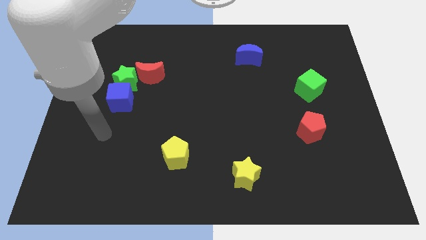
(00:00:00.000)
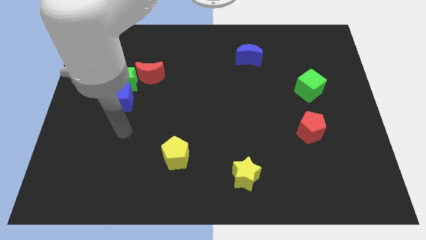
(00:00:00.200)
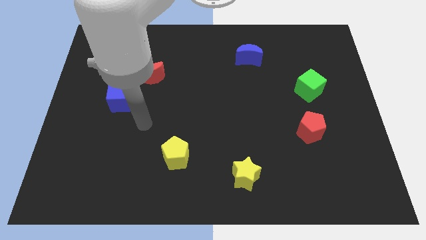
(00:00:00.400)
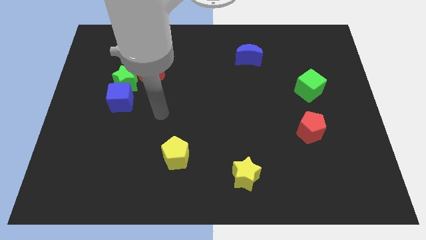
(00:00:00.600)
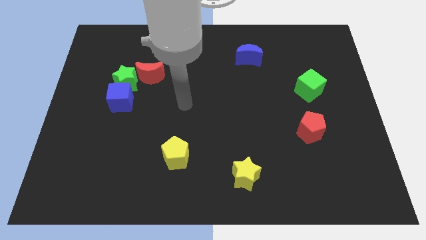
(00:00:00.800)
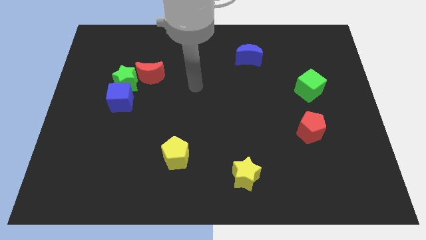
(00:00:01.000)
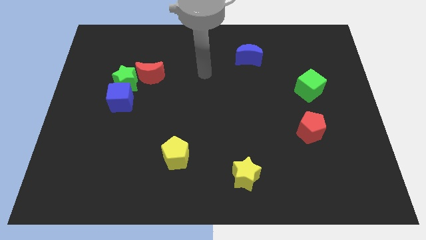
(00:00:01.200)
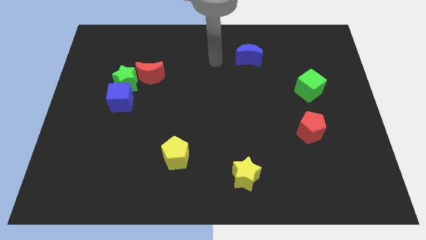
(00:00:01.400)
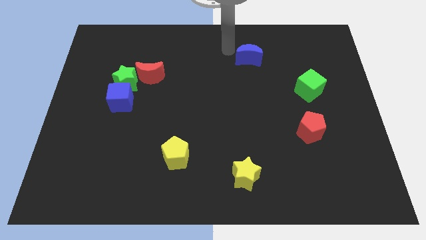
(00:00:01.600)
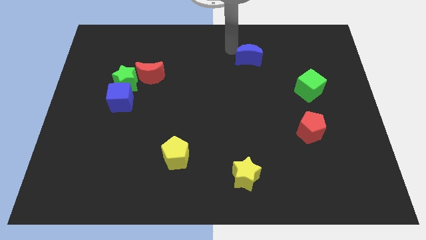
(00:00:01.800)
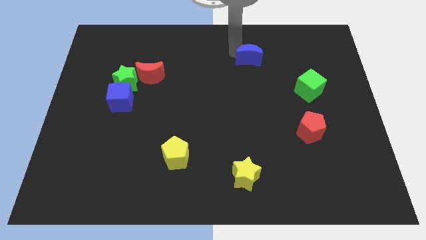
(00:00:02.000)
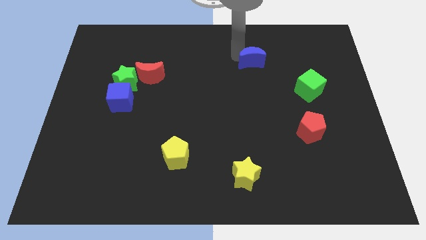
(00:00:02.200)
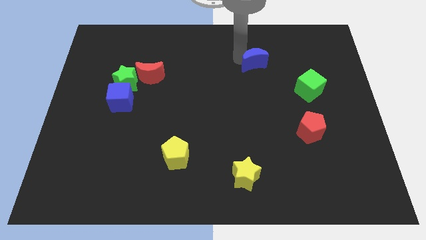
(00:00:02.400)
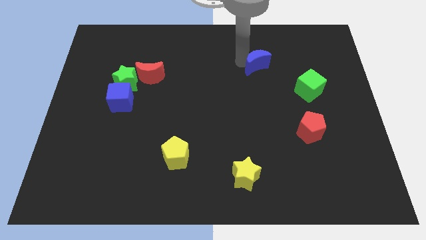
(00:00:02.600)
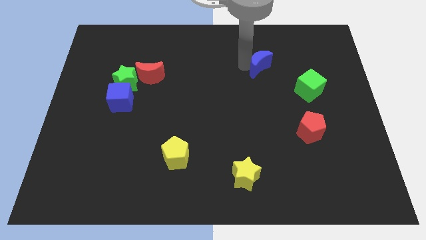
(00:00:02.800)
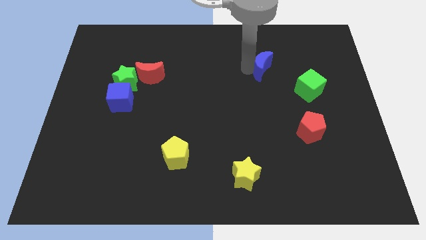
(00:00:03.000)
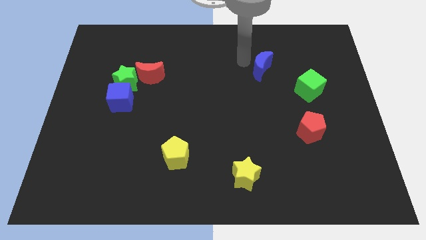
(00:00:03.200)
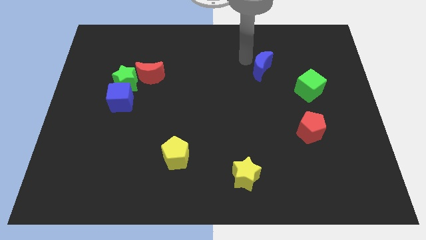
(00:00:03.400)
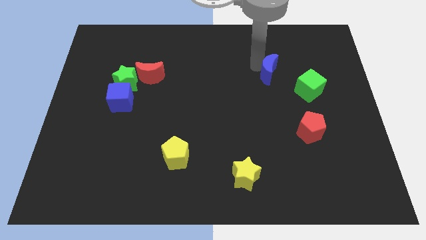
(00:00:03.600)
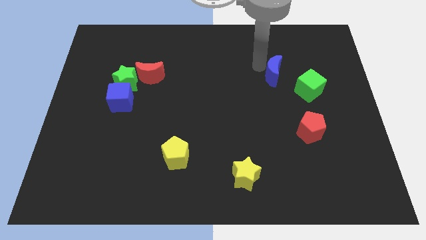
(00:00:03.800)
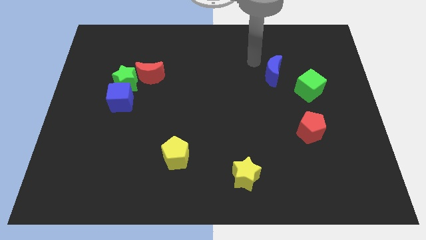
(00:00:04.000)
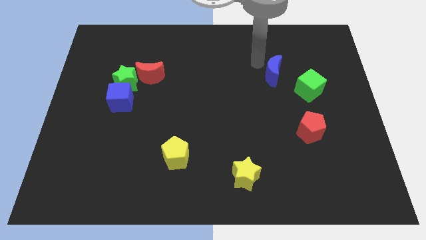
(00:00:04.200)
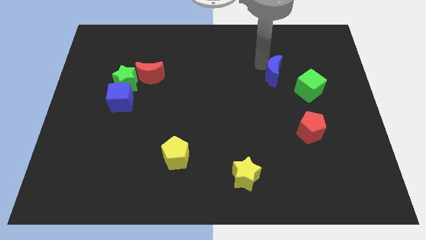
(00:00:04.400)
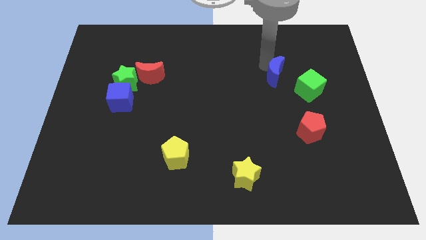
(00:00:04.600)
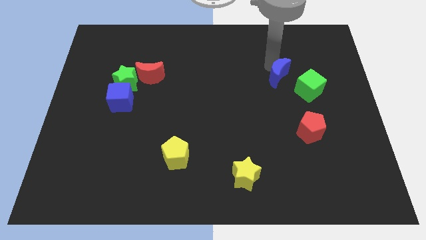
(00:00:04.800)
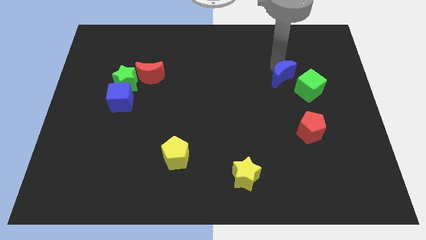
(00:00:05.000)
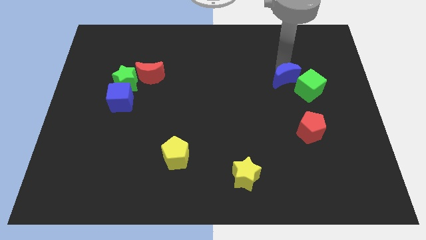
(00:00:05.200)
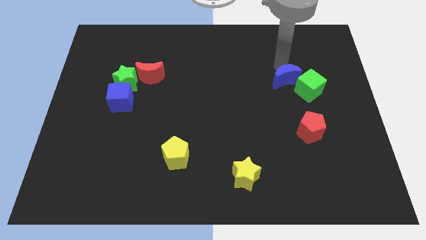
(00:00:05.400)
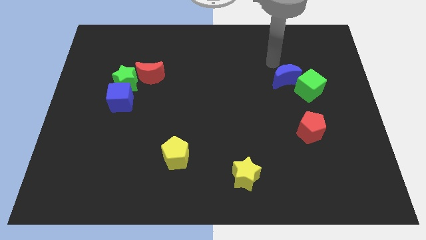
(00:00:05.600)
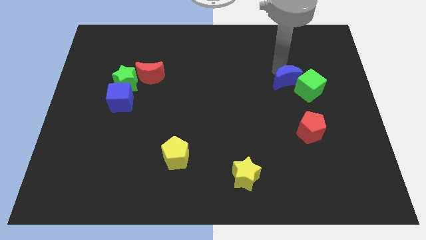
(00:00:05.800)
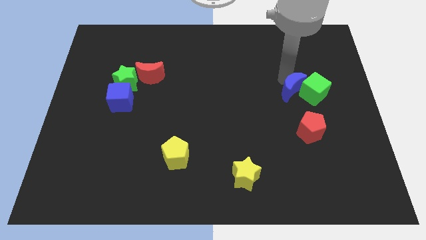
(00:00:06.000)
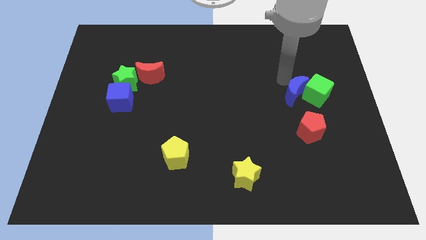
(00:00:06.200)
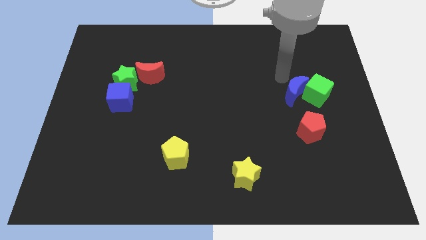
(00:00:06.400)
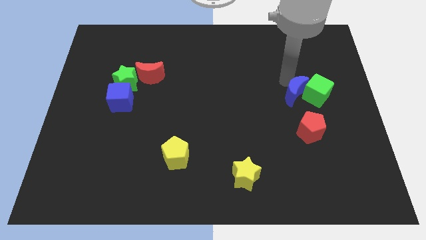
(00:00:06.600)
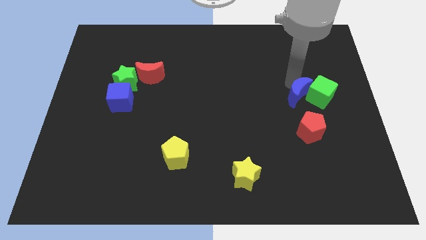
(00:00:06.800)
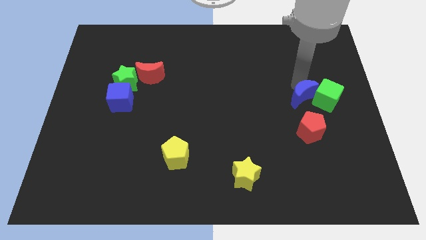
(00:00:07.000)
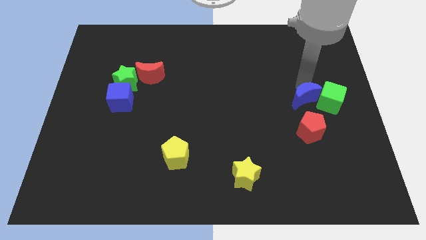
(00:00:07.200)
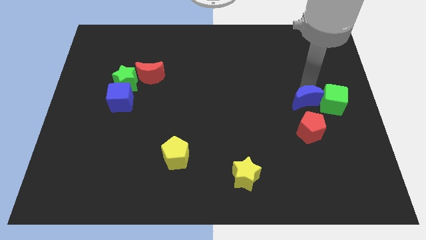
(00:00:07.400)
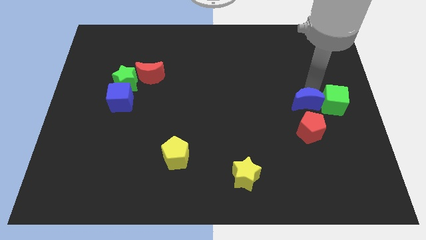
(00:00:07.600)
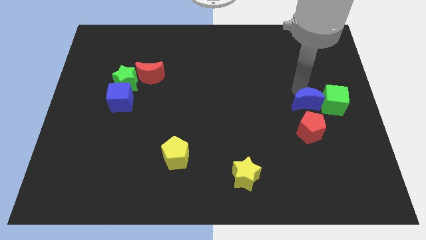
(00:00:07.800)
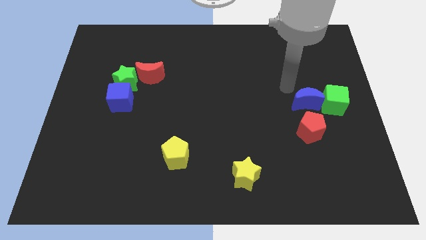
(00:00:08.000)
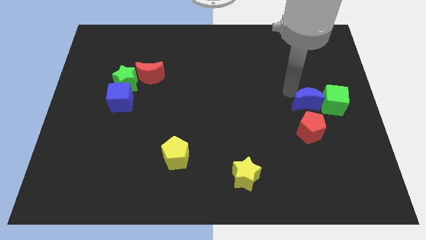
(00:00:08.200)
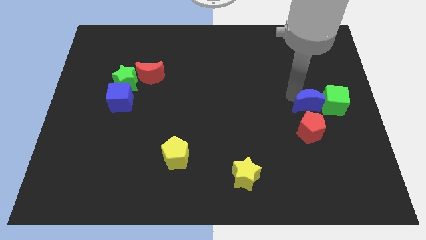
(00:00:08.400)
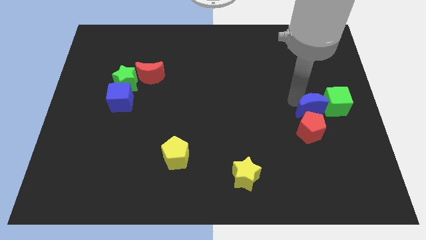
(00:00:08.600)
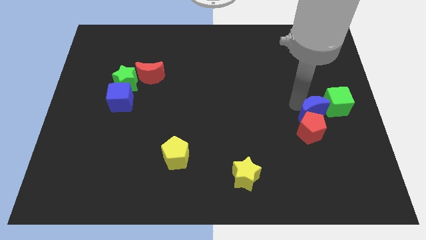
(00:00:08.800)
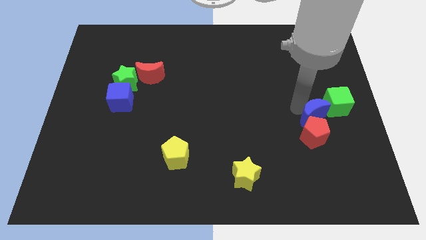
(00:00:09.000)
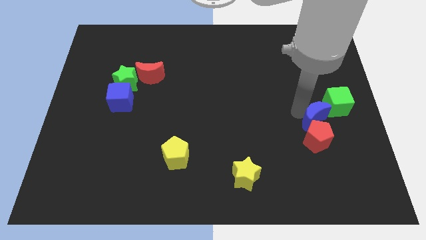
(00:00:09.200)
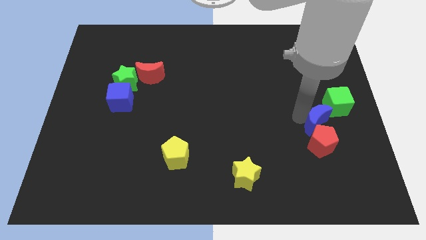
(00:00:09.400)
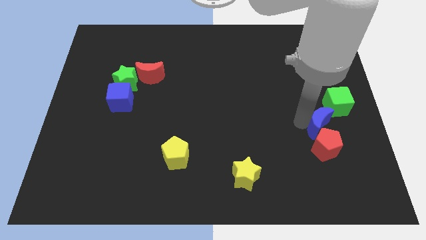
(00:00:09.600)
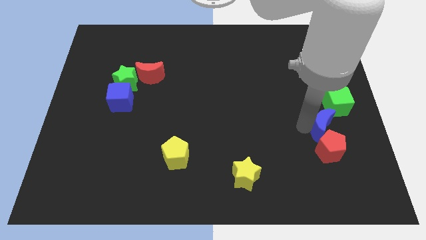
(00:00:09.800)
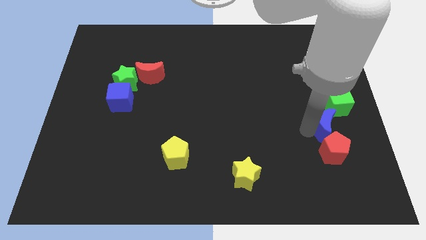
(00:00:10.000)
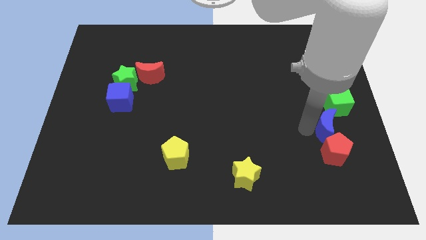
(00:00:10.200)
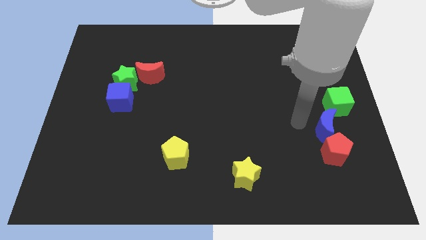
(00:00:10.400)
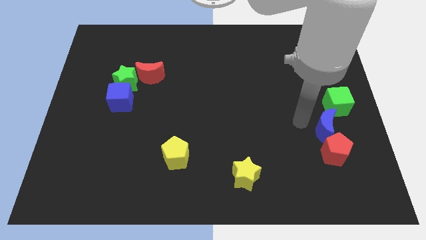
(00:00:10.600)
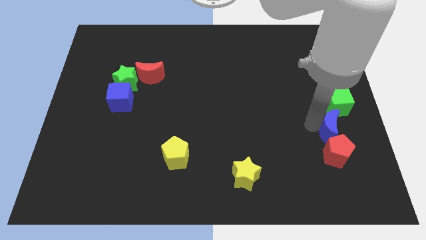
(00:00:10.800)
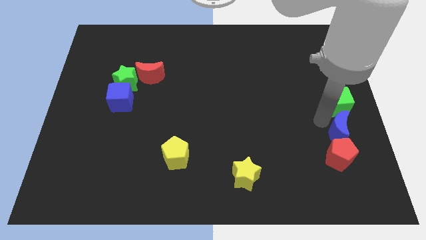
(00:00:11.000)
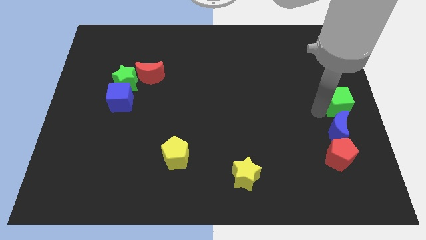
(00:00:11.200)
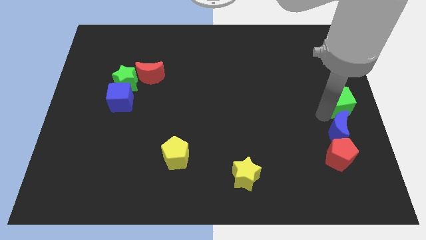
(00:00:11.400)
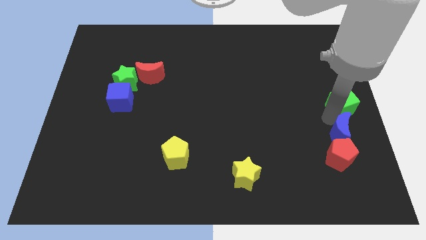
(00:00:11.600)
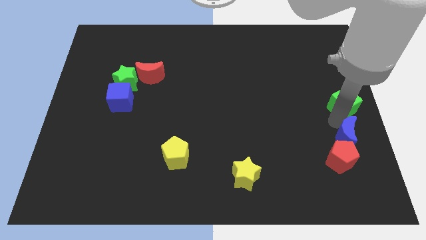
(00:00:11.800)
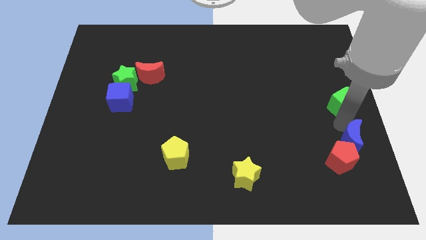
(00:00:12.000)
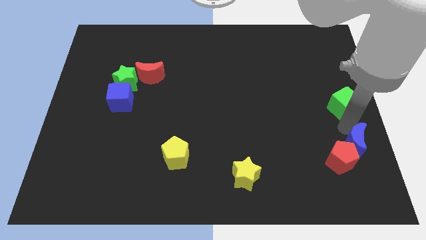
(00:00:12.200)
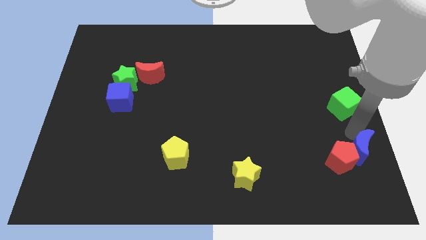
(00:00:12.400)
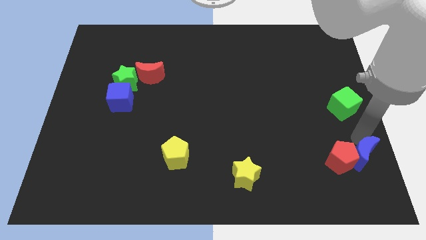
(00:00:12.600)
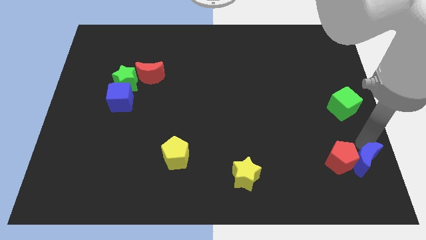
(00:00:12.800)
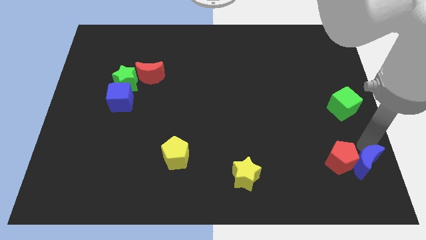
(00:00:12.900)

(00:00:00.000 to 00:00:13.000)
put the blue moon to the bottom right corner
